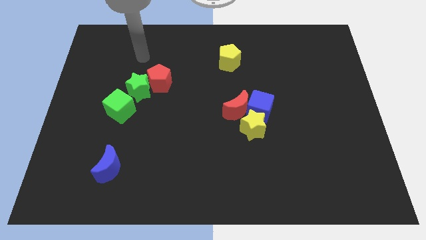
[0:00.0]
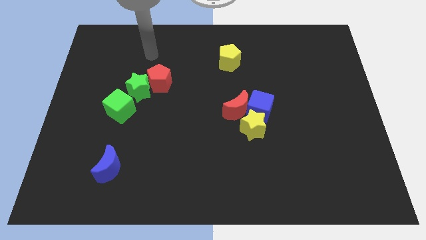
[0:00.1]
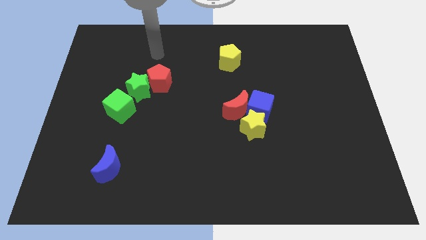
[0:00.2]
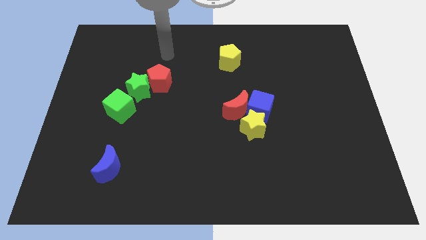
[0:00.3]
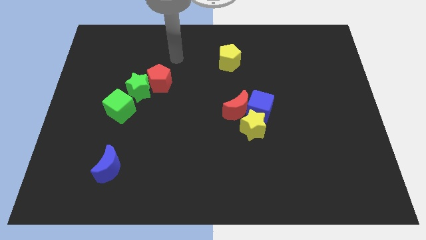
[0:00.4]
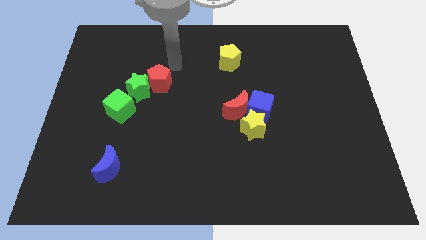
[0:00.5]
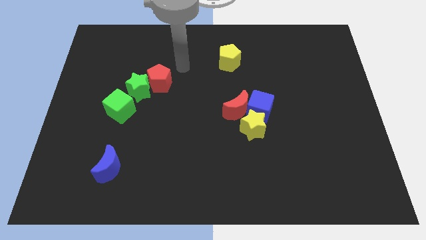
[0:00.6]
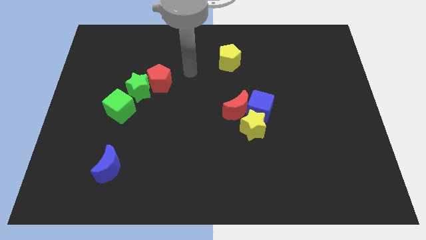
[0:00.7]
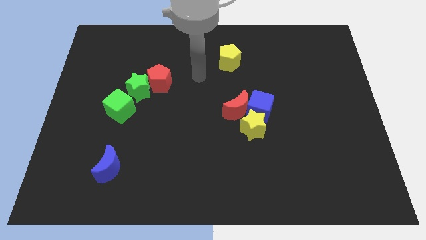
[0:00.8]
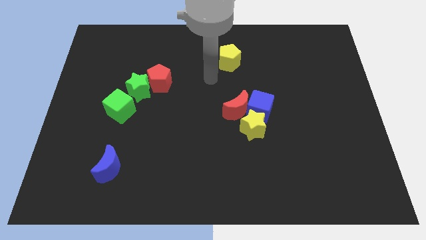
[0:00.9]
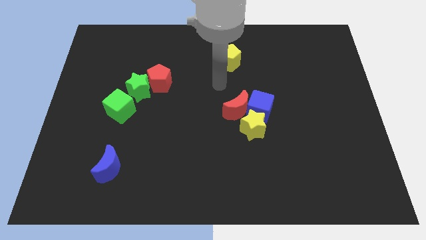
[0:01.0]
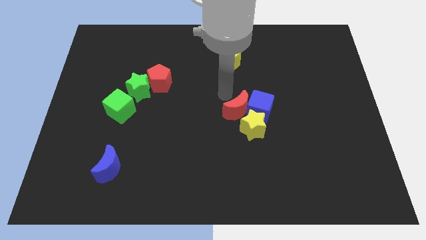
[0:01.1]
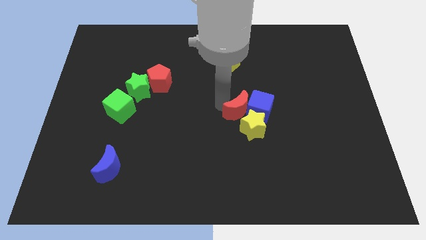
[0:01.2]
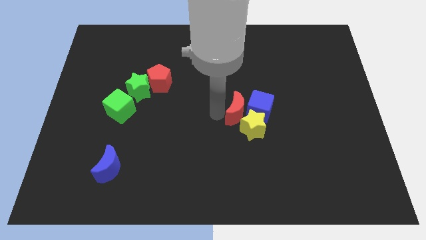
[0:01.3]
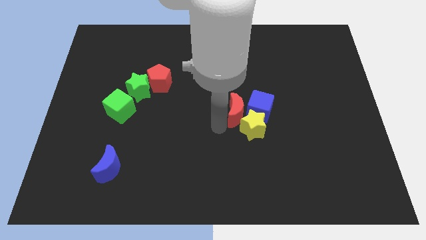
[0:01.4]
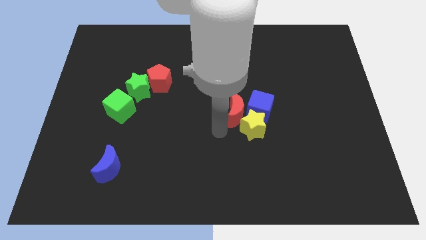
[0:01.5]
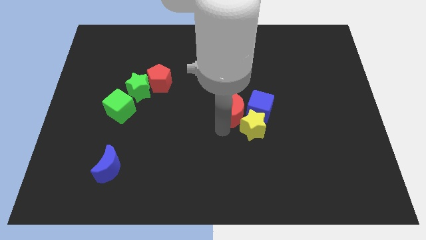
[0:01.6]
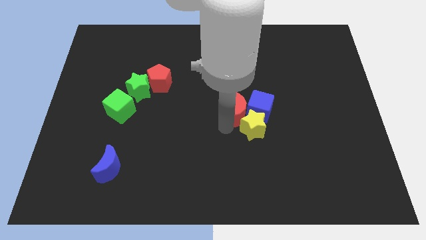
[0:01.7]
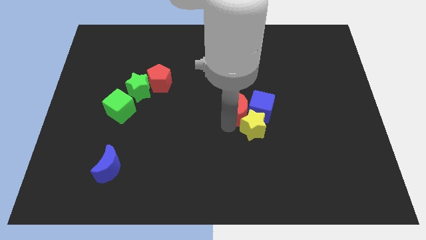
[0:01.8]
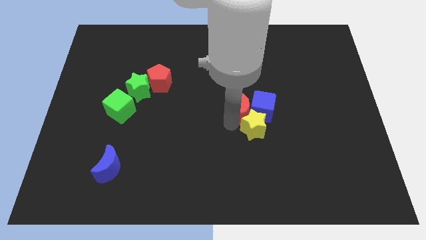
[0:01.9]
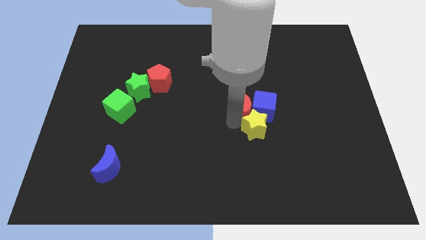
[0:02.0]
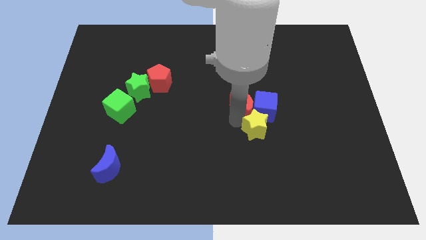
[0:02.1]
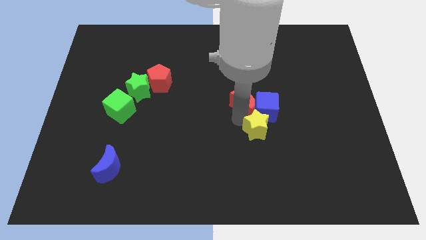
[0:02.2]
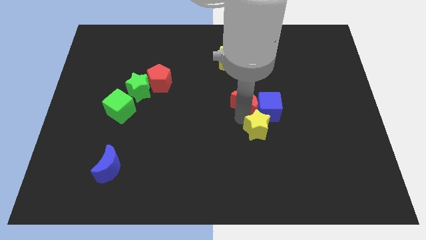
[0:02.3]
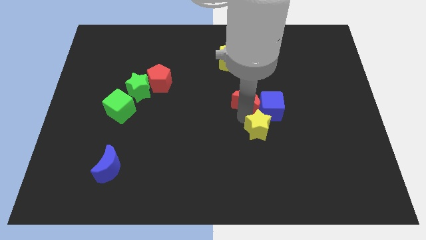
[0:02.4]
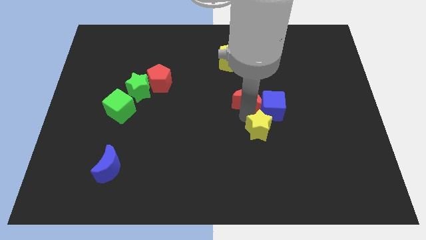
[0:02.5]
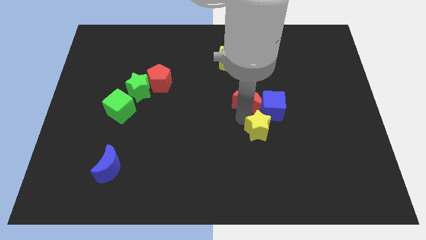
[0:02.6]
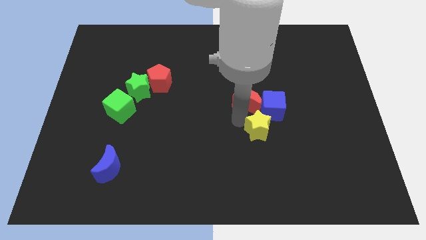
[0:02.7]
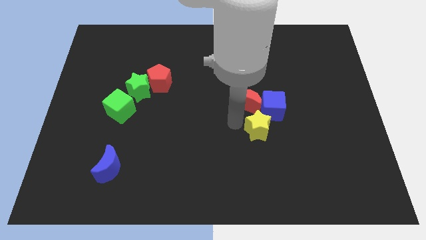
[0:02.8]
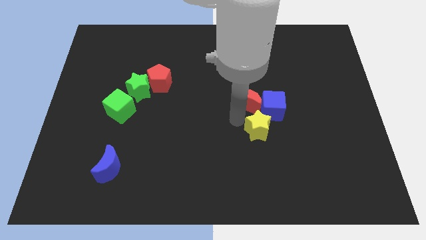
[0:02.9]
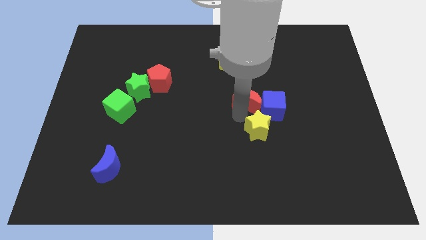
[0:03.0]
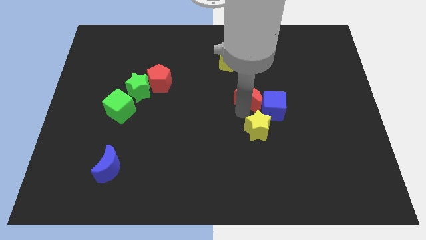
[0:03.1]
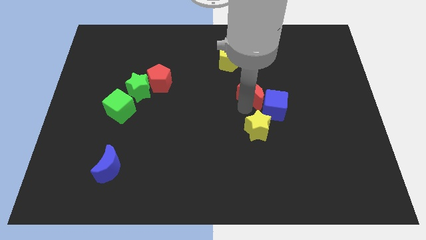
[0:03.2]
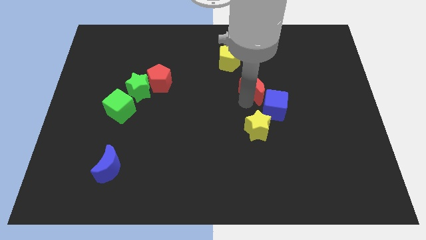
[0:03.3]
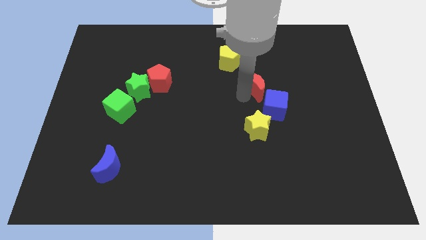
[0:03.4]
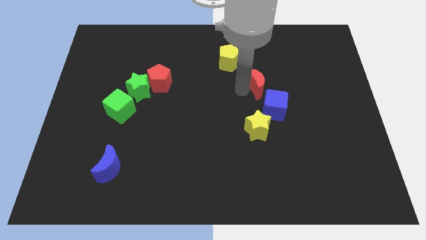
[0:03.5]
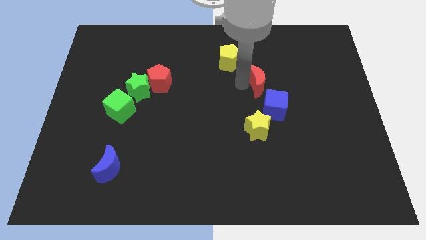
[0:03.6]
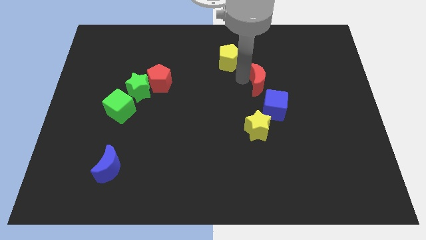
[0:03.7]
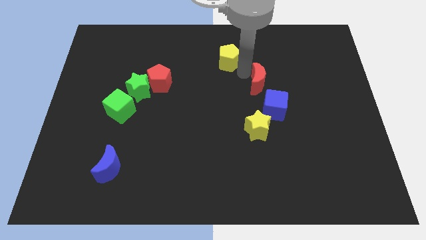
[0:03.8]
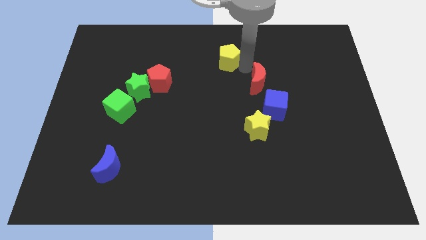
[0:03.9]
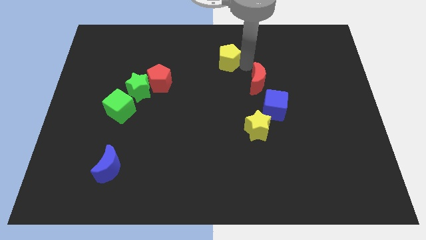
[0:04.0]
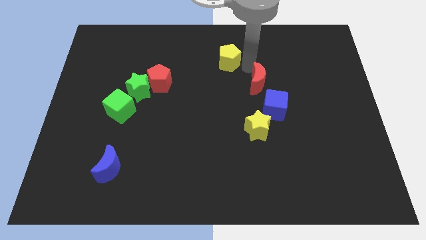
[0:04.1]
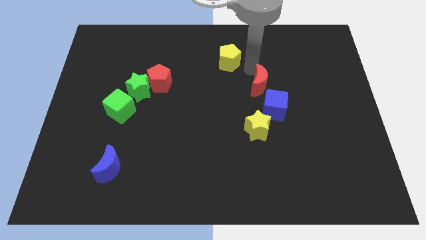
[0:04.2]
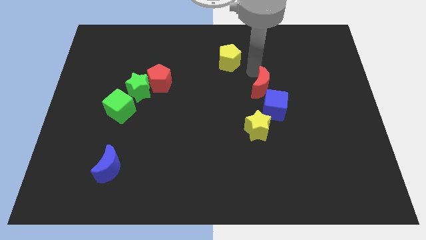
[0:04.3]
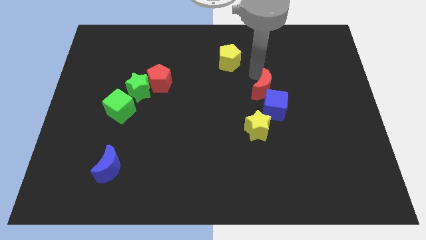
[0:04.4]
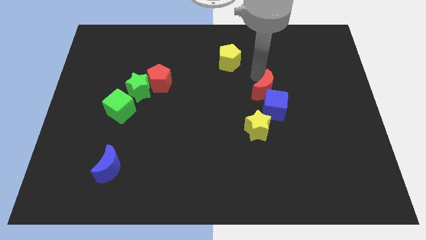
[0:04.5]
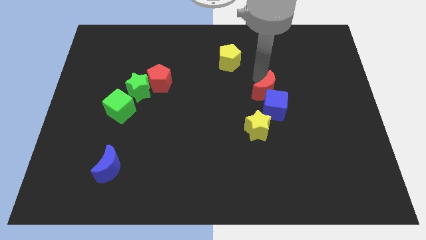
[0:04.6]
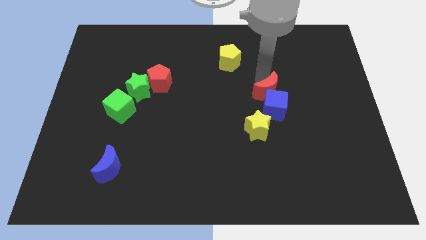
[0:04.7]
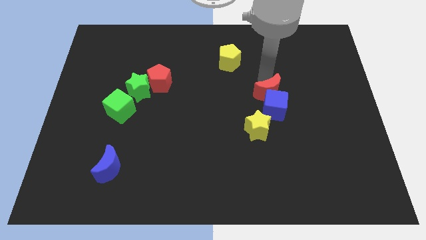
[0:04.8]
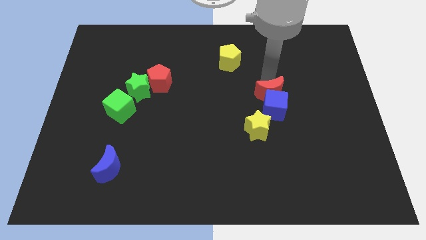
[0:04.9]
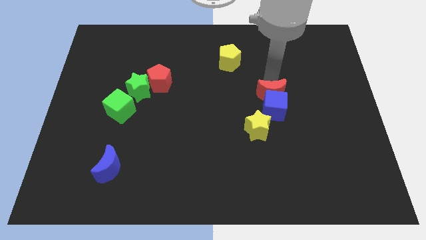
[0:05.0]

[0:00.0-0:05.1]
push the red moon to the top right side of the yellow star

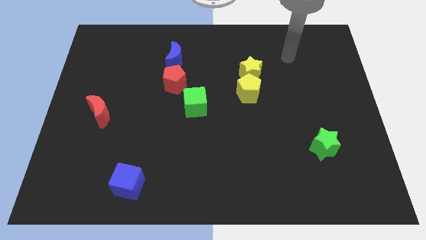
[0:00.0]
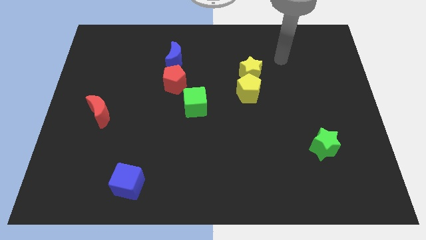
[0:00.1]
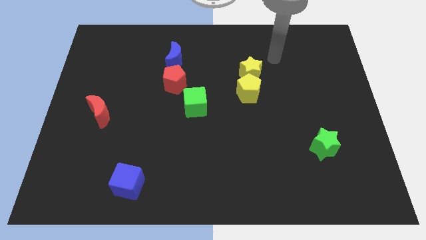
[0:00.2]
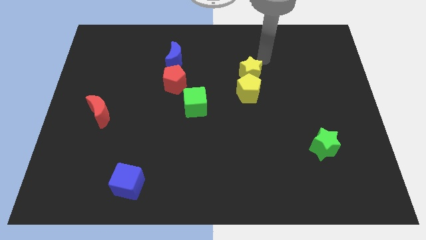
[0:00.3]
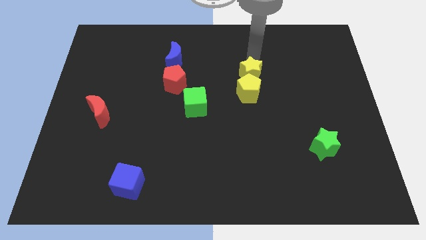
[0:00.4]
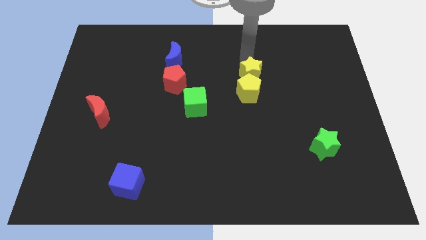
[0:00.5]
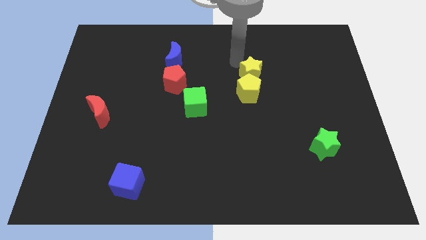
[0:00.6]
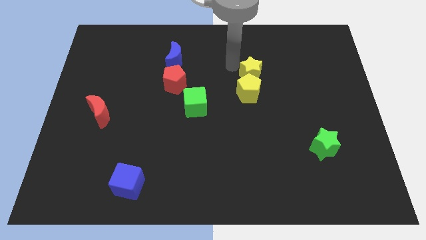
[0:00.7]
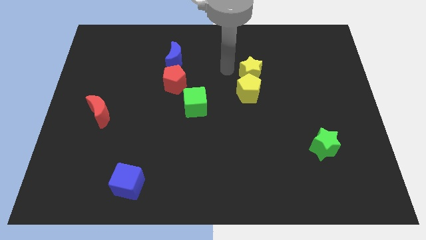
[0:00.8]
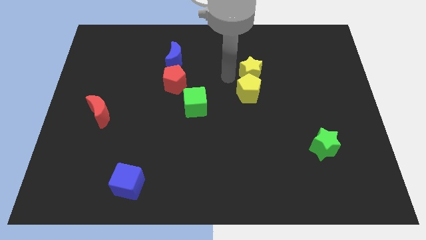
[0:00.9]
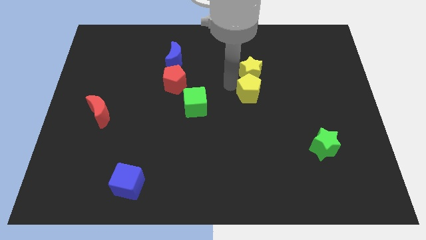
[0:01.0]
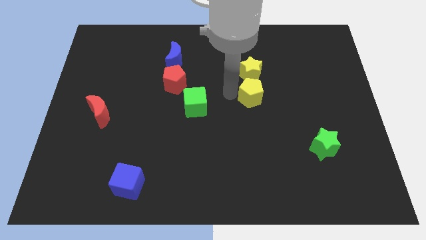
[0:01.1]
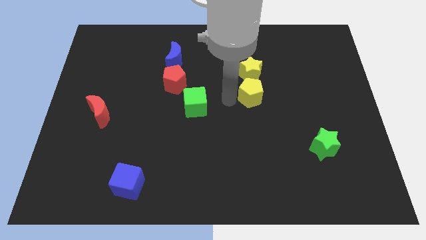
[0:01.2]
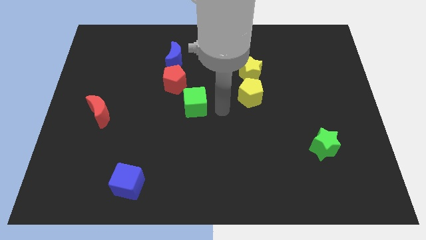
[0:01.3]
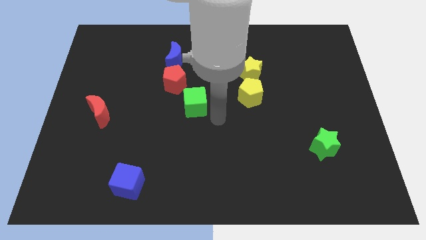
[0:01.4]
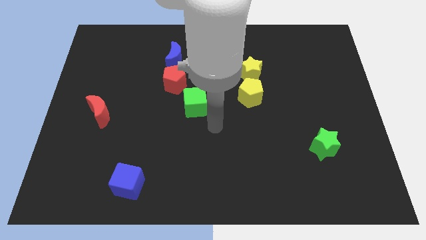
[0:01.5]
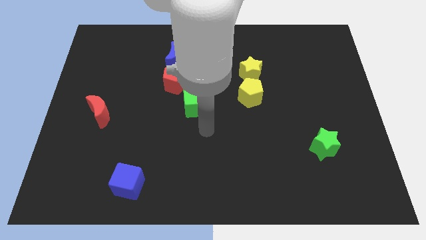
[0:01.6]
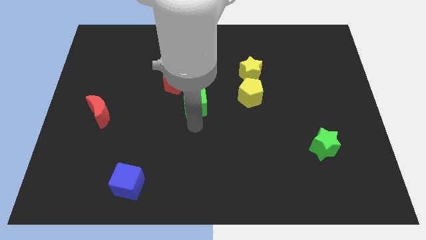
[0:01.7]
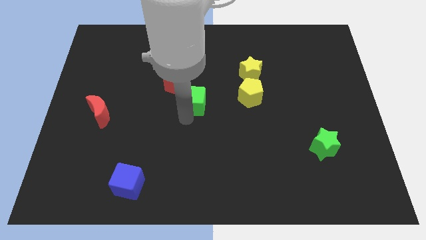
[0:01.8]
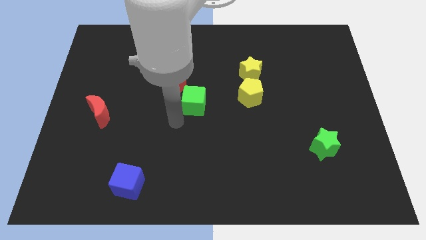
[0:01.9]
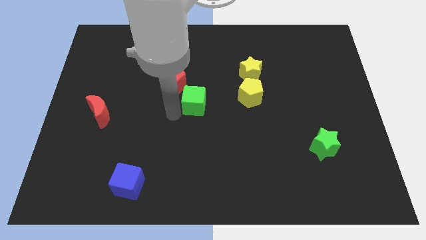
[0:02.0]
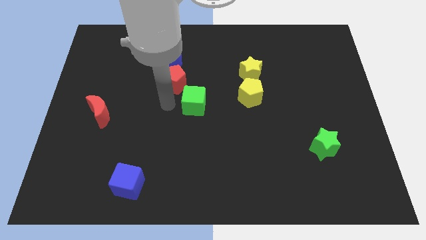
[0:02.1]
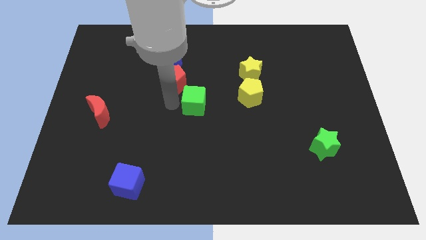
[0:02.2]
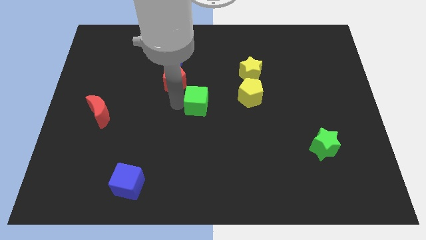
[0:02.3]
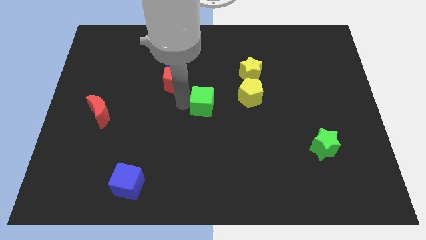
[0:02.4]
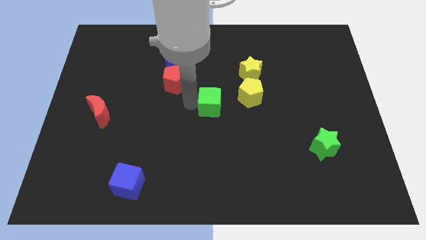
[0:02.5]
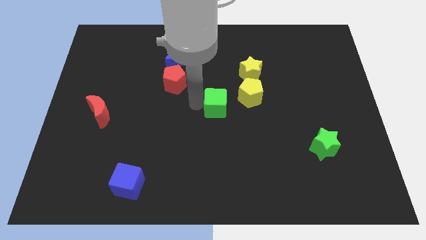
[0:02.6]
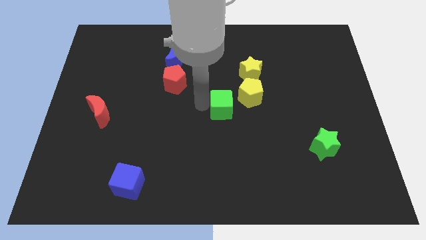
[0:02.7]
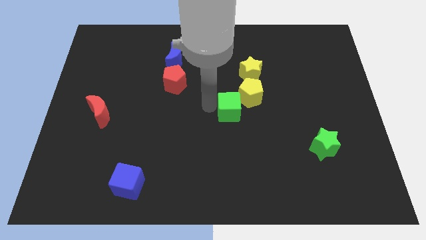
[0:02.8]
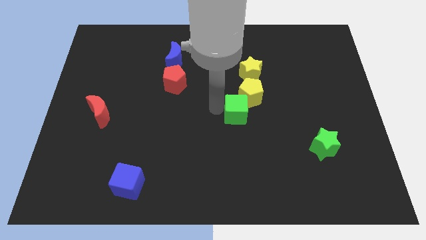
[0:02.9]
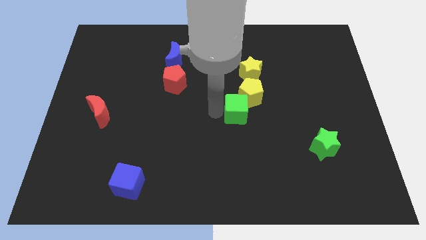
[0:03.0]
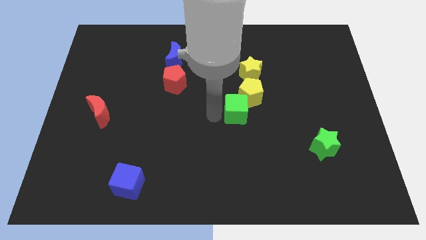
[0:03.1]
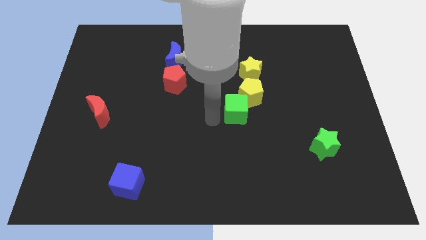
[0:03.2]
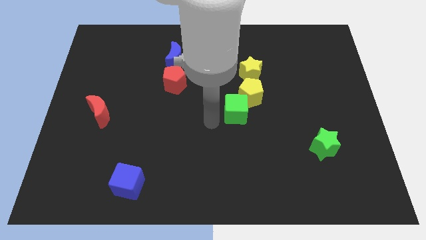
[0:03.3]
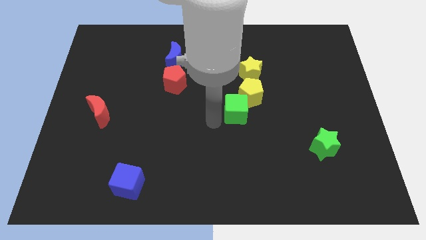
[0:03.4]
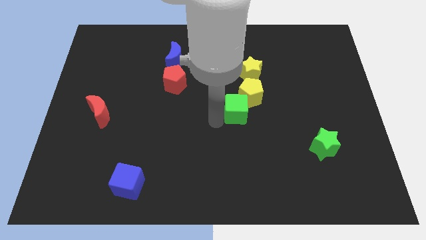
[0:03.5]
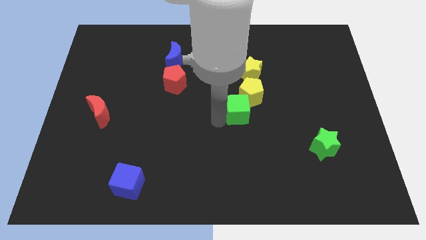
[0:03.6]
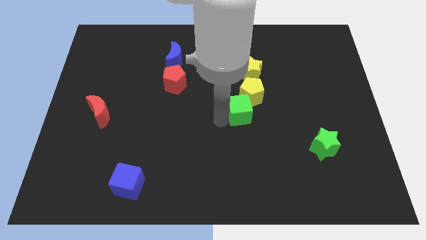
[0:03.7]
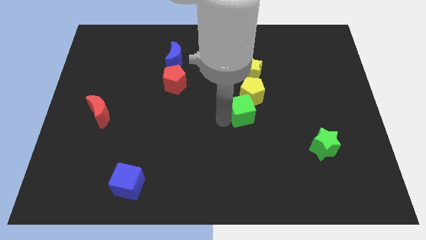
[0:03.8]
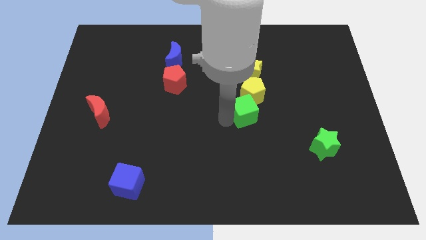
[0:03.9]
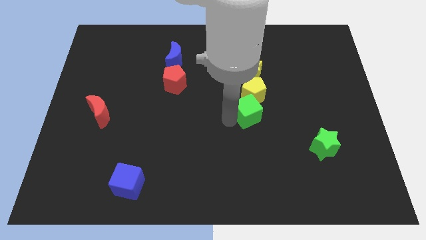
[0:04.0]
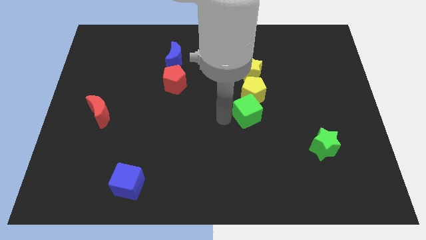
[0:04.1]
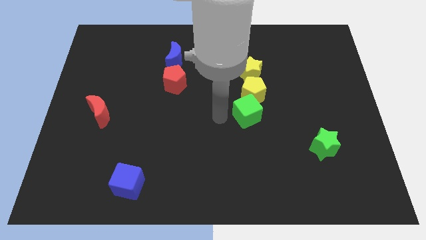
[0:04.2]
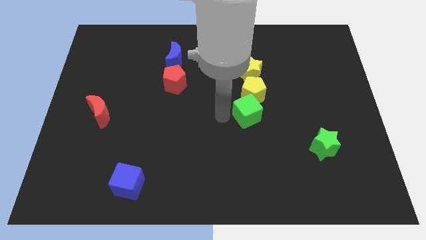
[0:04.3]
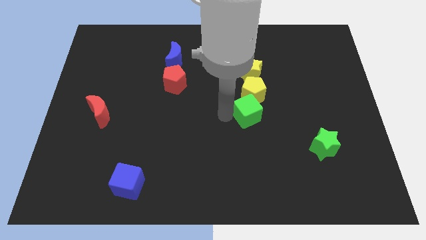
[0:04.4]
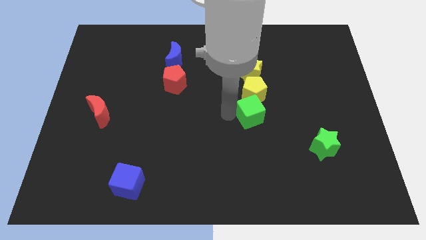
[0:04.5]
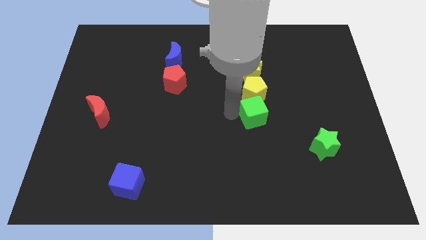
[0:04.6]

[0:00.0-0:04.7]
slide the green cube to the bottom right side of the yellow pentagon
